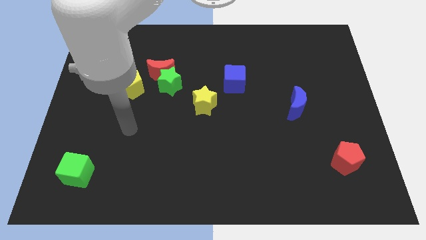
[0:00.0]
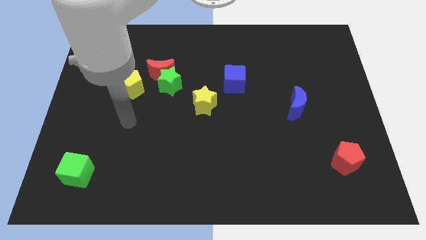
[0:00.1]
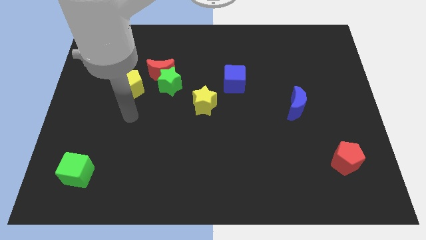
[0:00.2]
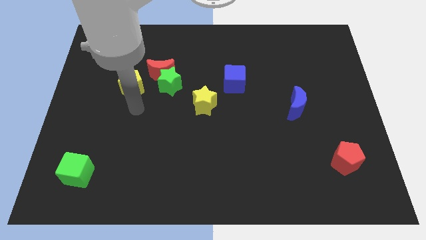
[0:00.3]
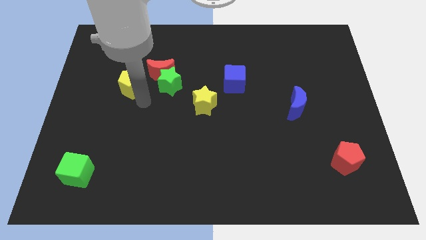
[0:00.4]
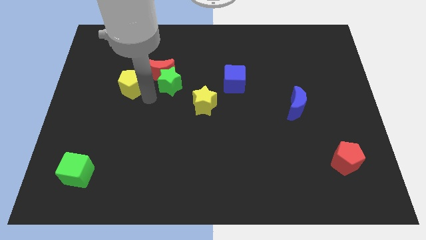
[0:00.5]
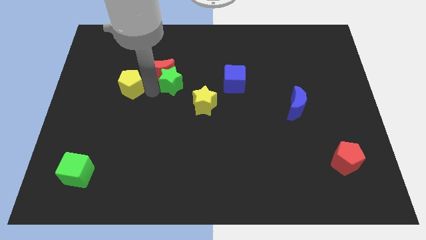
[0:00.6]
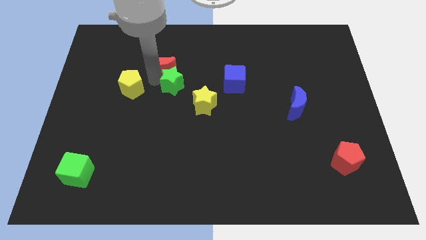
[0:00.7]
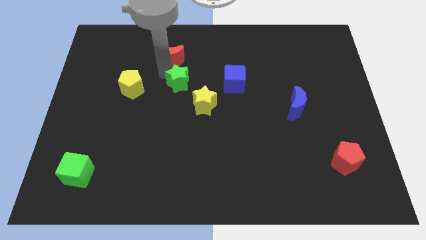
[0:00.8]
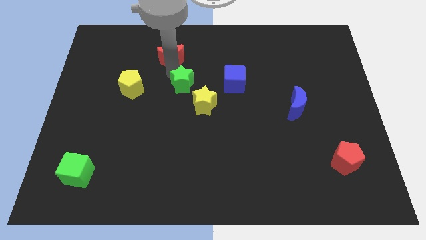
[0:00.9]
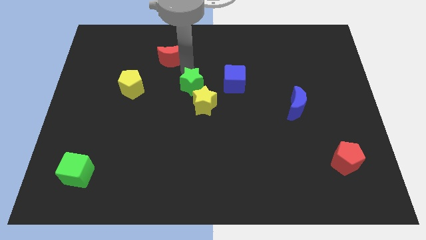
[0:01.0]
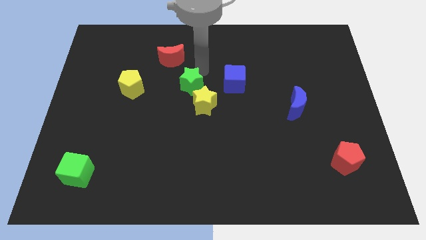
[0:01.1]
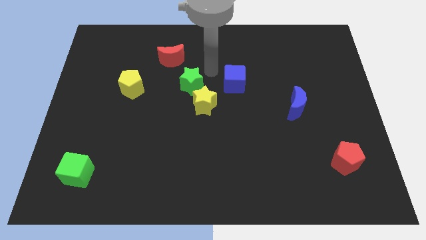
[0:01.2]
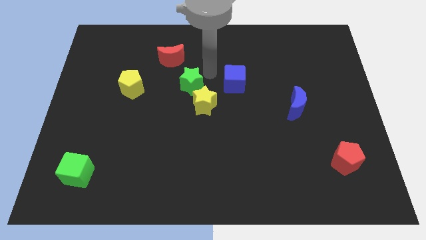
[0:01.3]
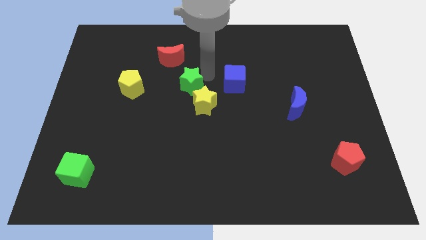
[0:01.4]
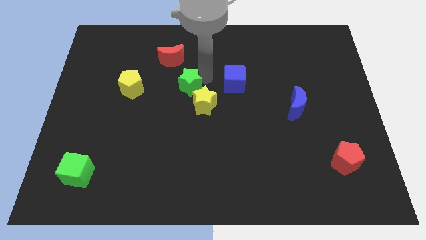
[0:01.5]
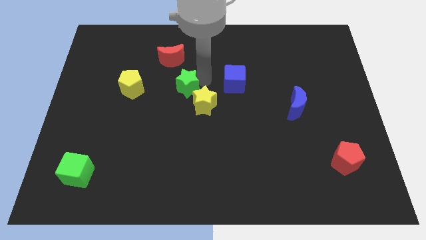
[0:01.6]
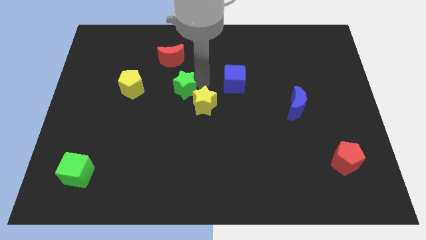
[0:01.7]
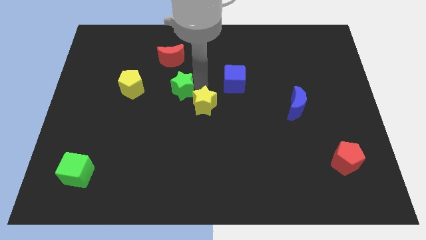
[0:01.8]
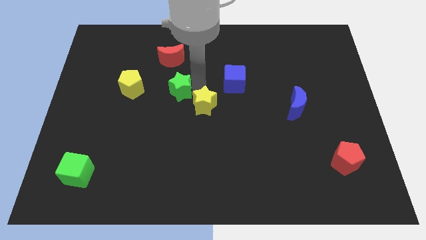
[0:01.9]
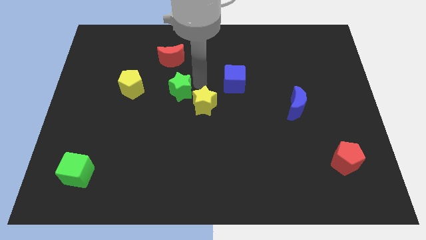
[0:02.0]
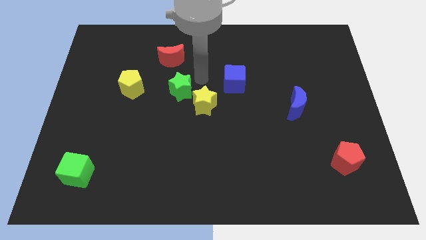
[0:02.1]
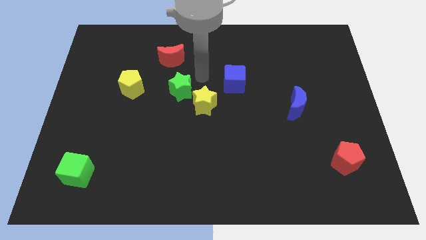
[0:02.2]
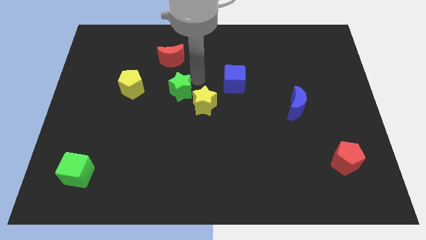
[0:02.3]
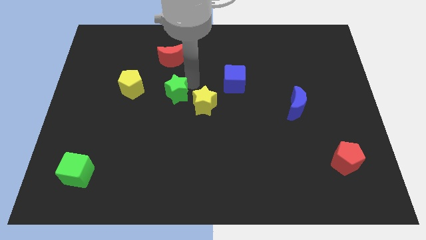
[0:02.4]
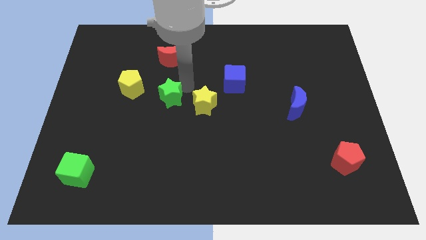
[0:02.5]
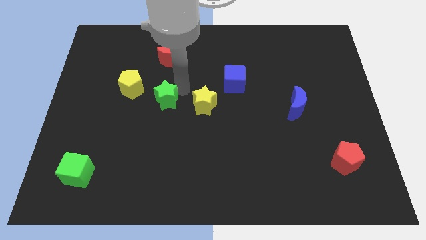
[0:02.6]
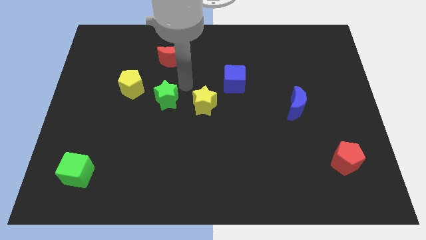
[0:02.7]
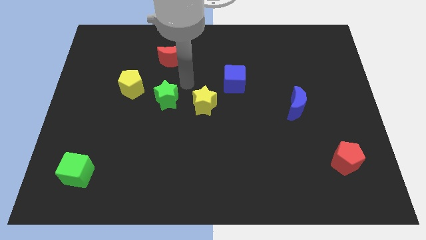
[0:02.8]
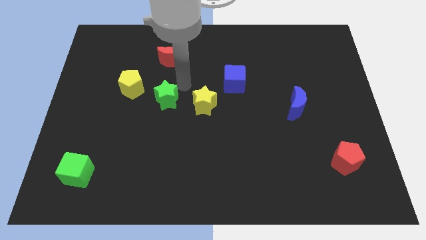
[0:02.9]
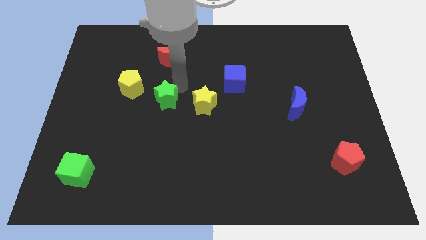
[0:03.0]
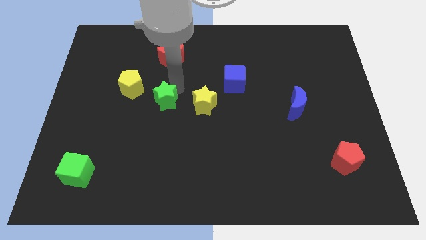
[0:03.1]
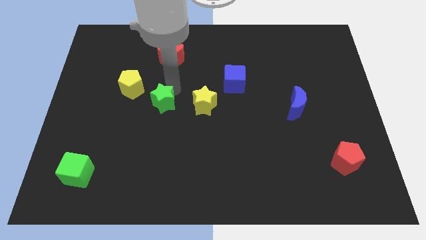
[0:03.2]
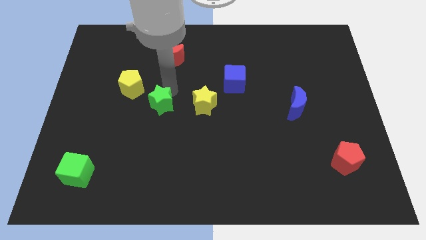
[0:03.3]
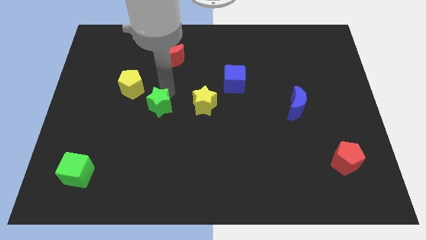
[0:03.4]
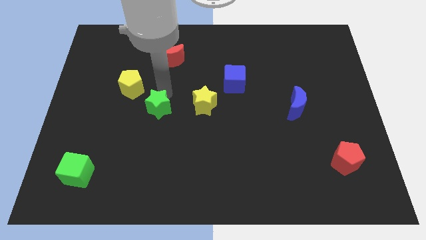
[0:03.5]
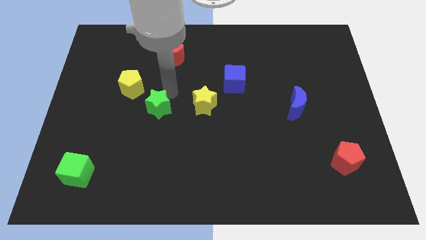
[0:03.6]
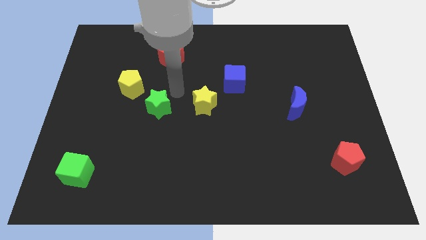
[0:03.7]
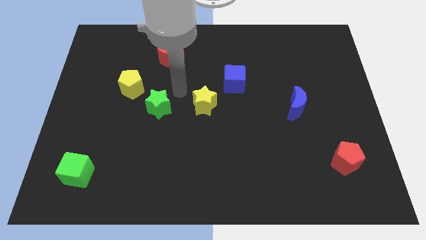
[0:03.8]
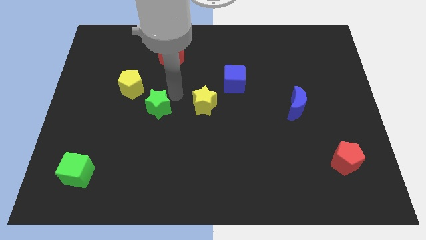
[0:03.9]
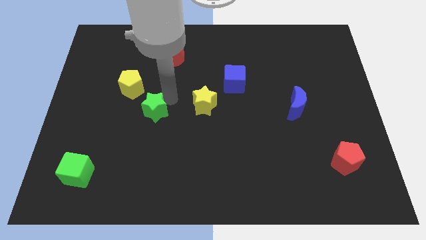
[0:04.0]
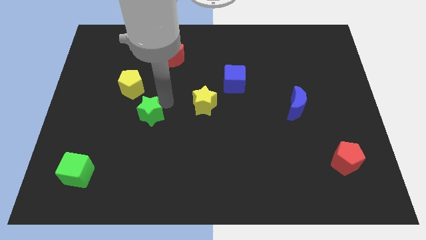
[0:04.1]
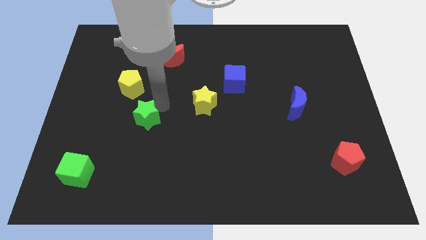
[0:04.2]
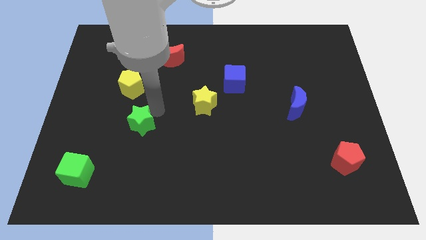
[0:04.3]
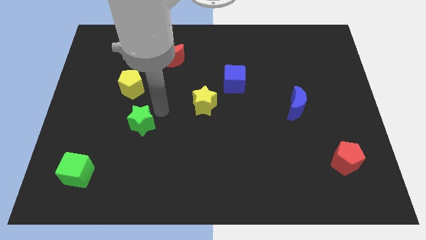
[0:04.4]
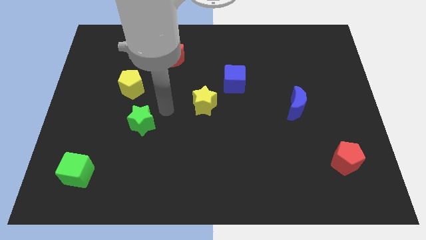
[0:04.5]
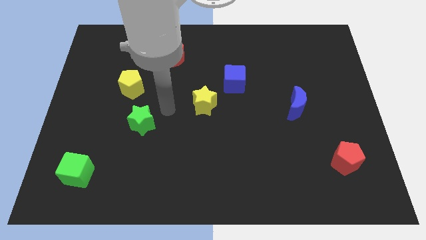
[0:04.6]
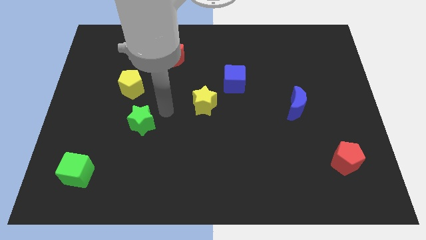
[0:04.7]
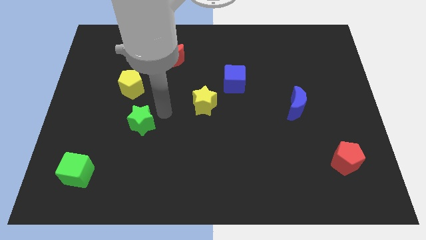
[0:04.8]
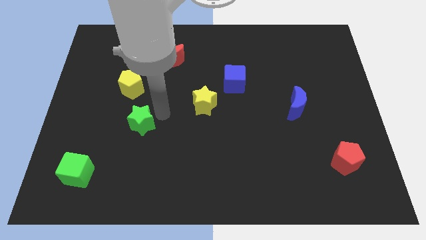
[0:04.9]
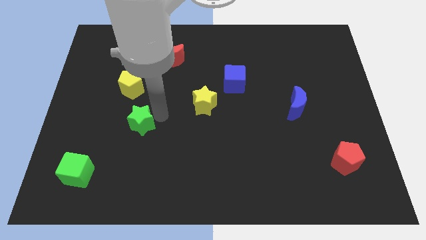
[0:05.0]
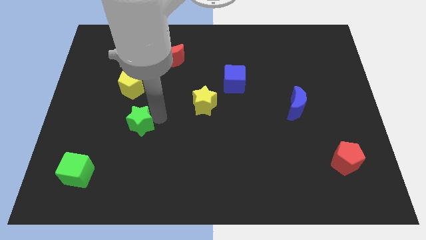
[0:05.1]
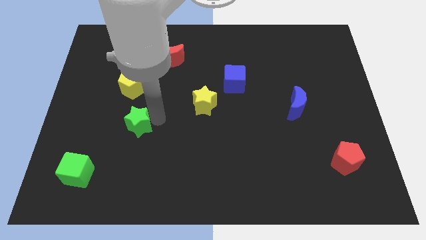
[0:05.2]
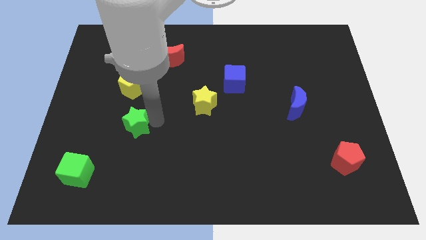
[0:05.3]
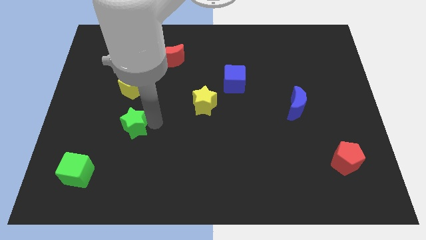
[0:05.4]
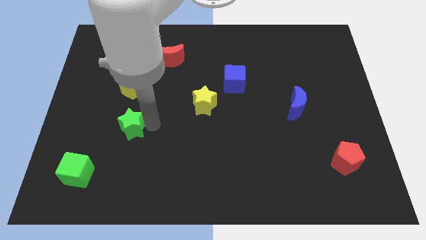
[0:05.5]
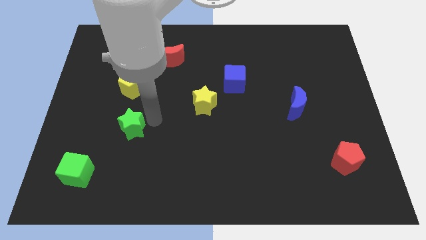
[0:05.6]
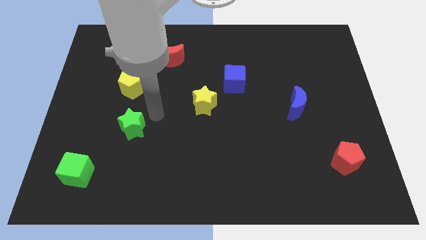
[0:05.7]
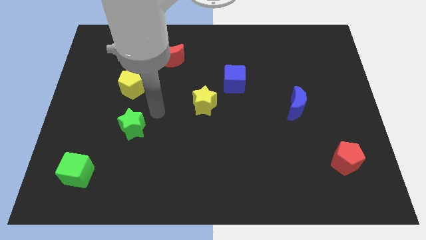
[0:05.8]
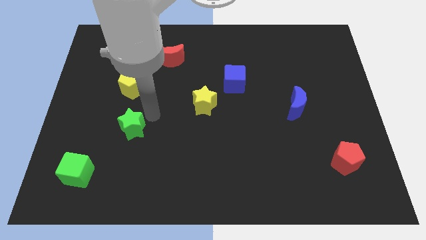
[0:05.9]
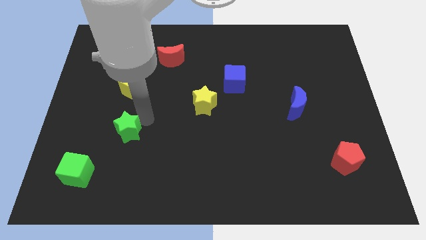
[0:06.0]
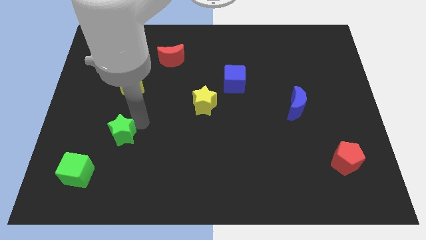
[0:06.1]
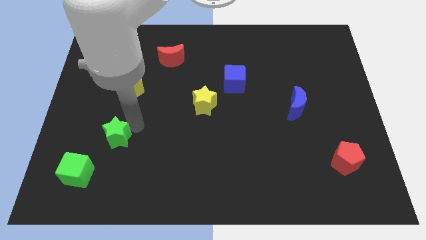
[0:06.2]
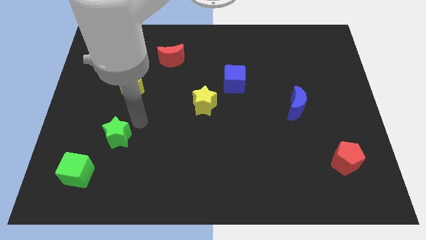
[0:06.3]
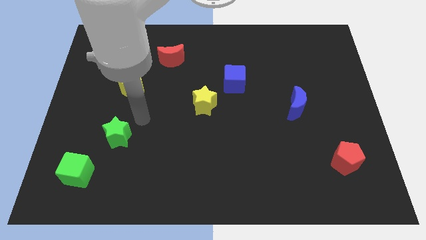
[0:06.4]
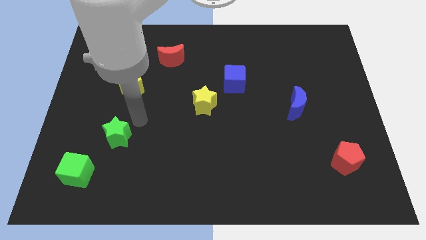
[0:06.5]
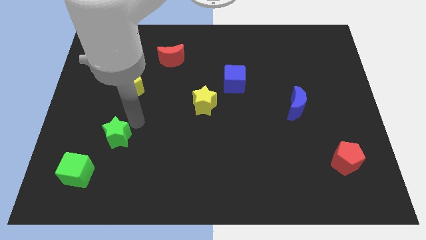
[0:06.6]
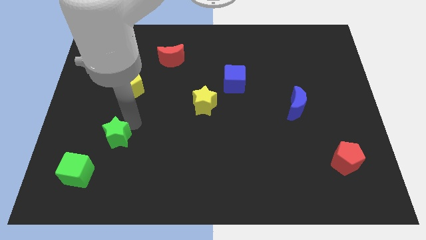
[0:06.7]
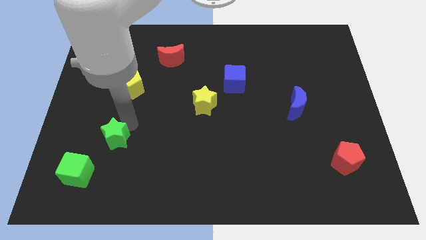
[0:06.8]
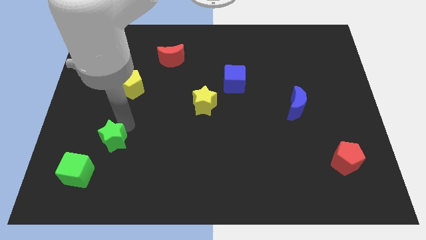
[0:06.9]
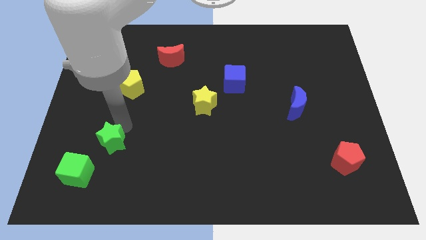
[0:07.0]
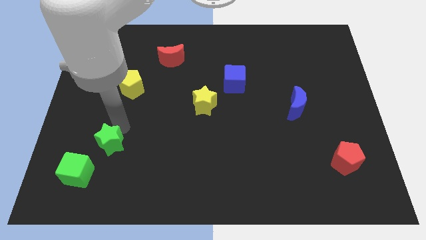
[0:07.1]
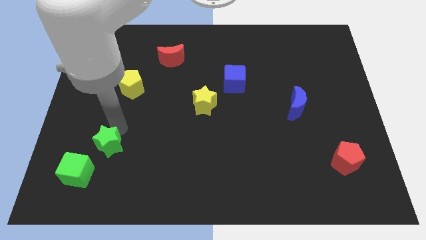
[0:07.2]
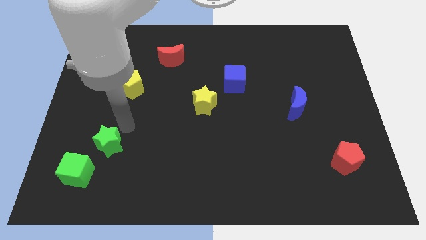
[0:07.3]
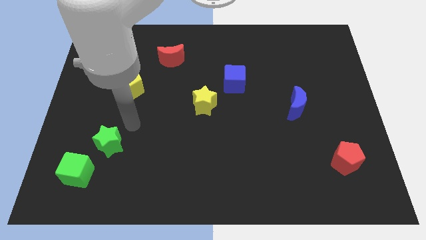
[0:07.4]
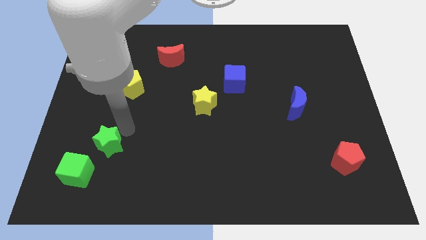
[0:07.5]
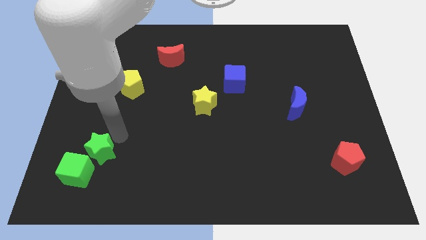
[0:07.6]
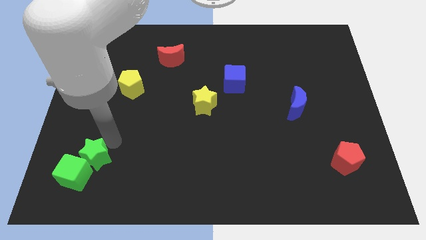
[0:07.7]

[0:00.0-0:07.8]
push the green star to the green cube
